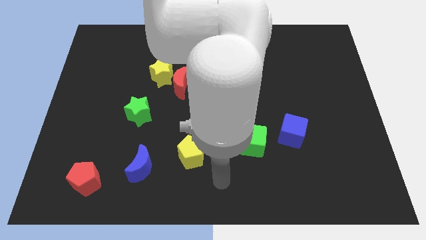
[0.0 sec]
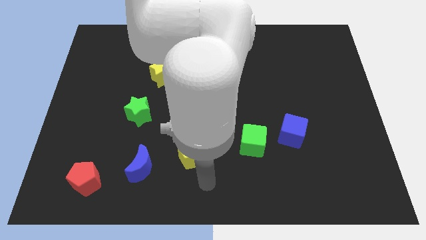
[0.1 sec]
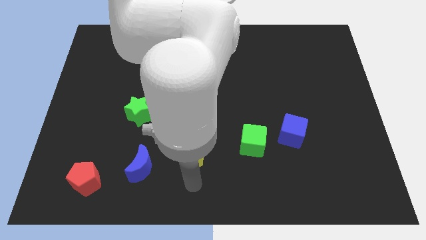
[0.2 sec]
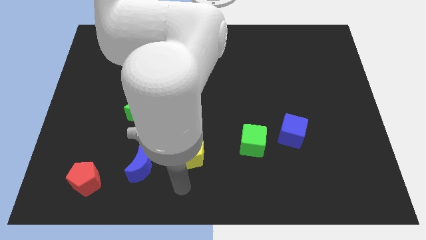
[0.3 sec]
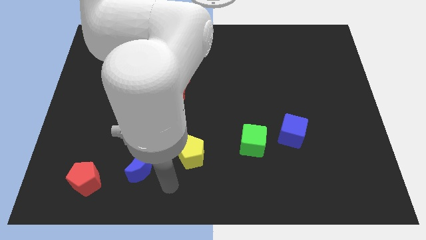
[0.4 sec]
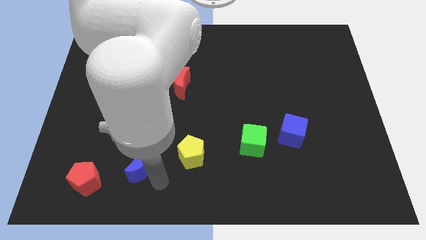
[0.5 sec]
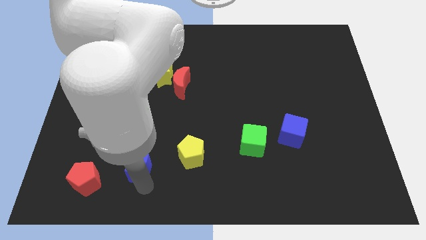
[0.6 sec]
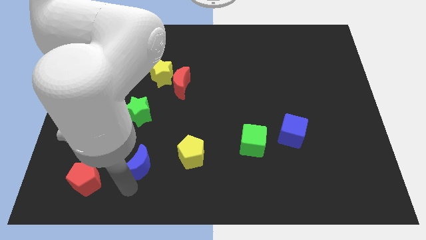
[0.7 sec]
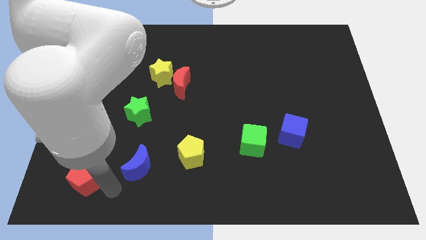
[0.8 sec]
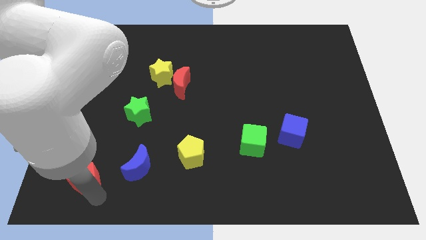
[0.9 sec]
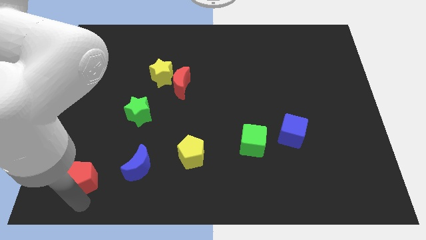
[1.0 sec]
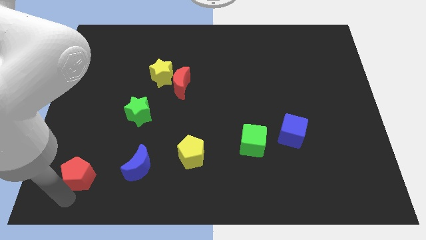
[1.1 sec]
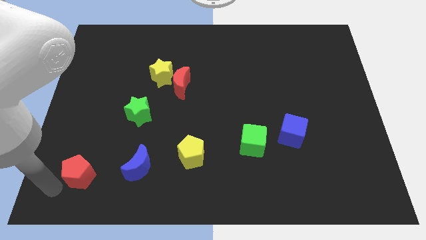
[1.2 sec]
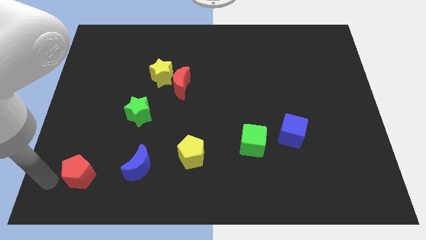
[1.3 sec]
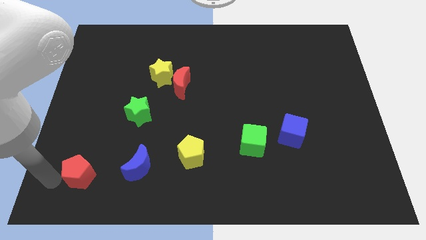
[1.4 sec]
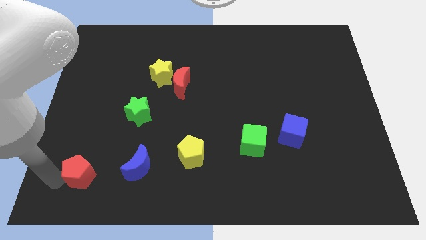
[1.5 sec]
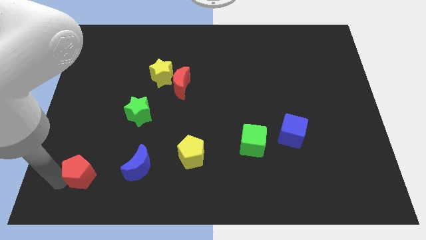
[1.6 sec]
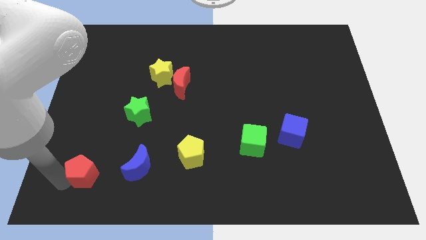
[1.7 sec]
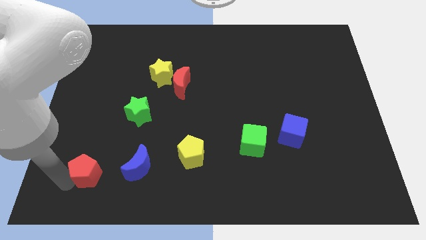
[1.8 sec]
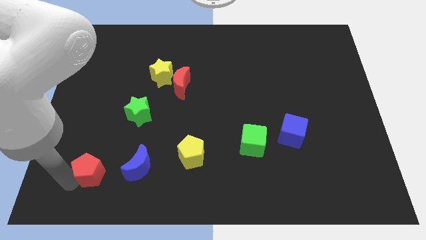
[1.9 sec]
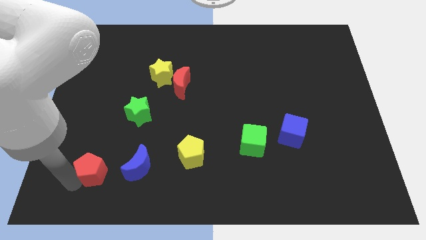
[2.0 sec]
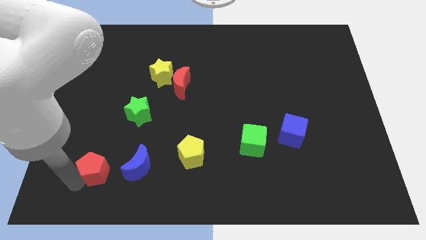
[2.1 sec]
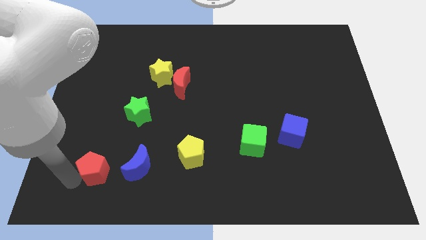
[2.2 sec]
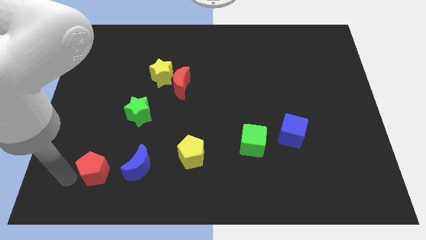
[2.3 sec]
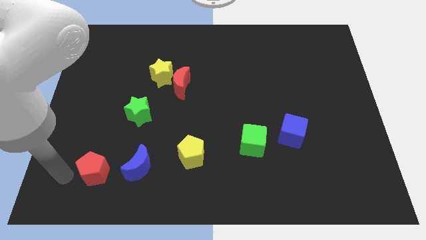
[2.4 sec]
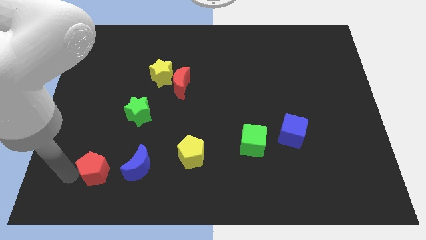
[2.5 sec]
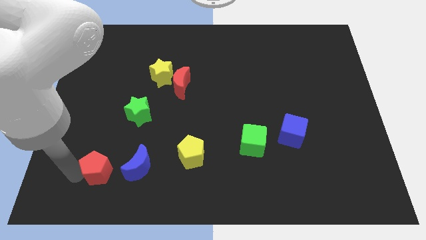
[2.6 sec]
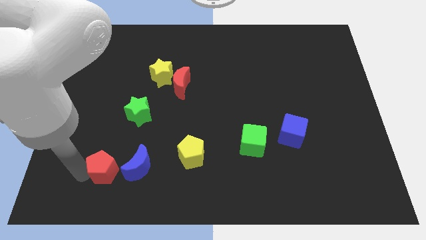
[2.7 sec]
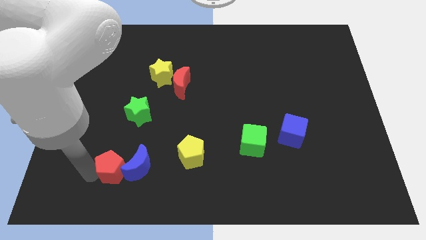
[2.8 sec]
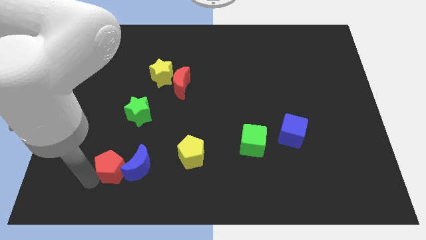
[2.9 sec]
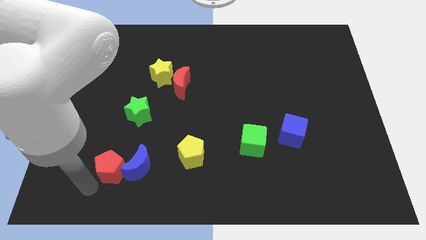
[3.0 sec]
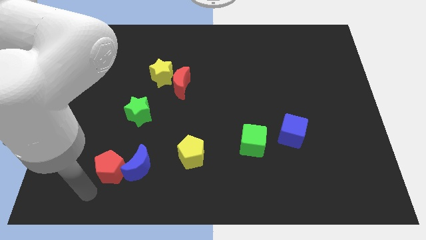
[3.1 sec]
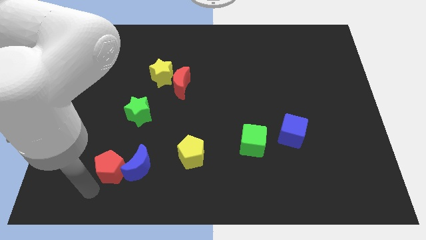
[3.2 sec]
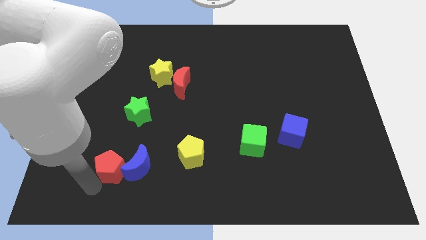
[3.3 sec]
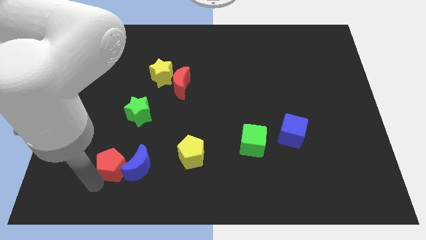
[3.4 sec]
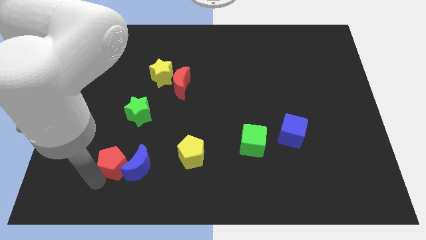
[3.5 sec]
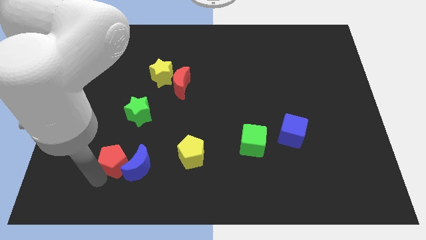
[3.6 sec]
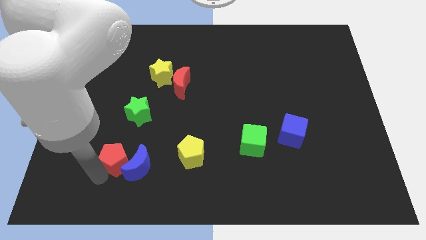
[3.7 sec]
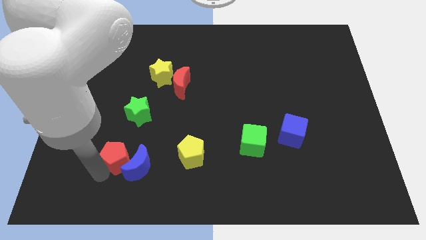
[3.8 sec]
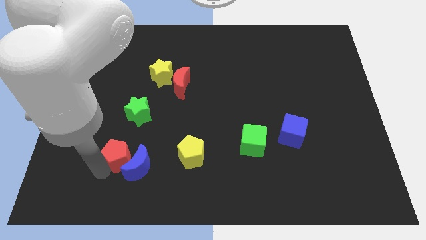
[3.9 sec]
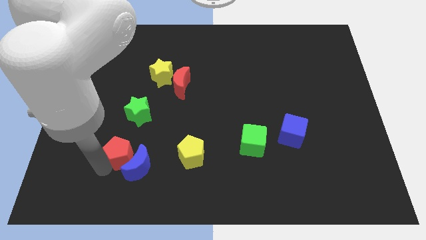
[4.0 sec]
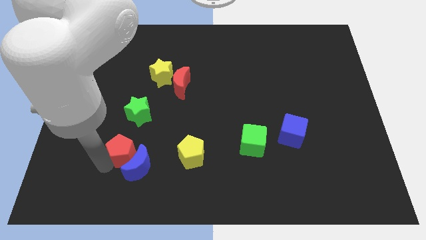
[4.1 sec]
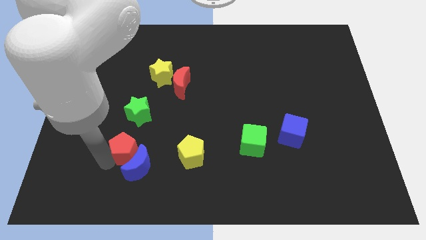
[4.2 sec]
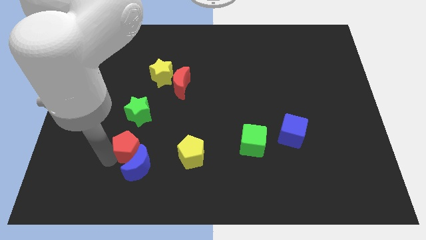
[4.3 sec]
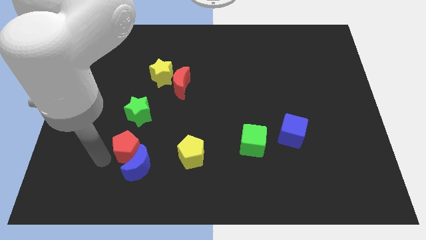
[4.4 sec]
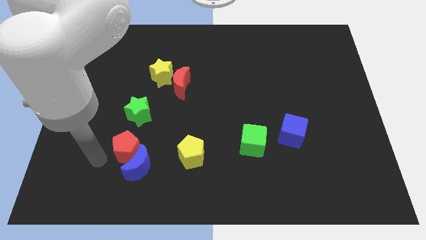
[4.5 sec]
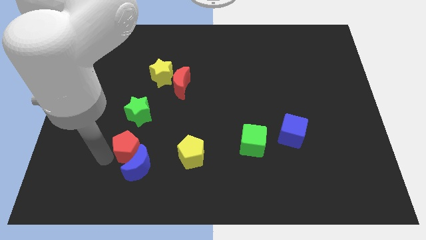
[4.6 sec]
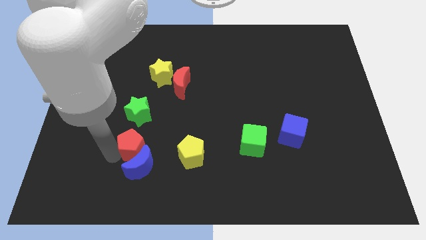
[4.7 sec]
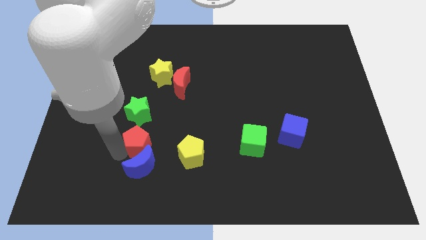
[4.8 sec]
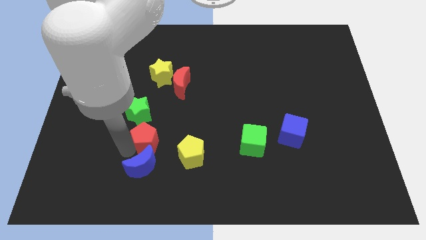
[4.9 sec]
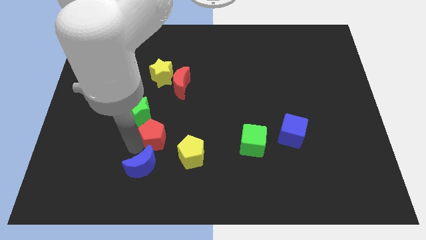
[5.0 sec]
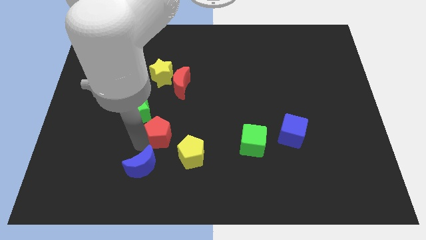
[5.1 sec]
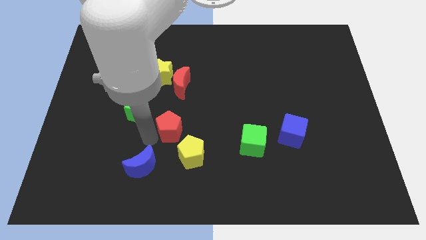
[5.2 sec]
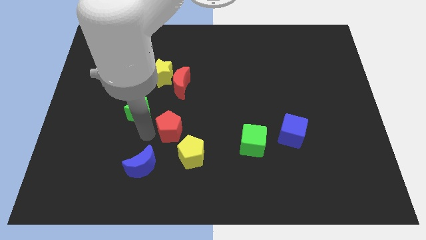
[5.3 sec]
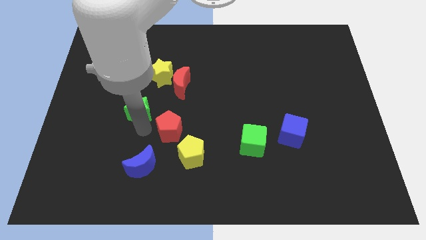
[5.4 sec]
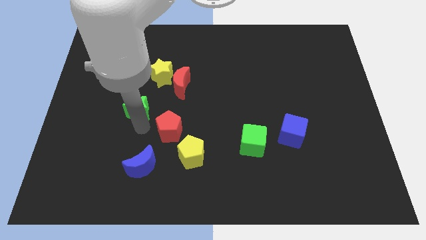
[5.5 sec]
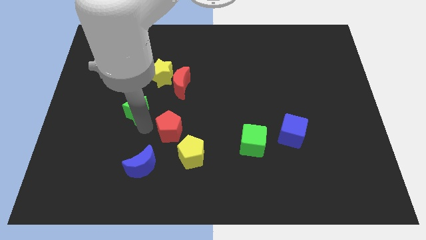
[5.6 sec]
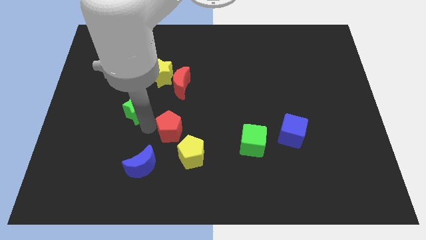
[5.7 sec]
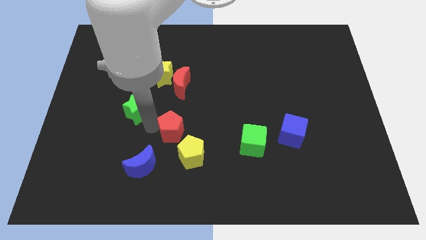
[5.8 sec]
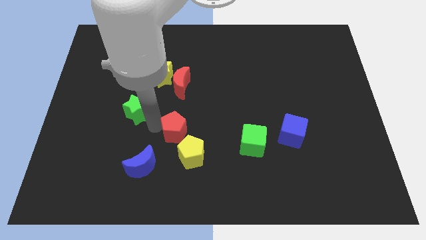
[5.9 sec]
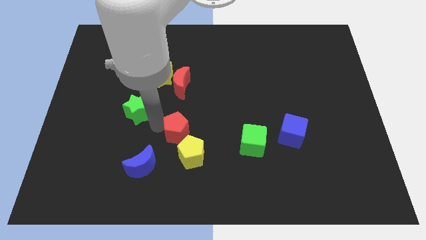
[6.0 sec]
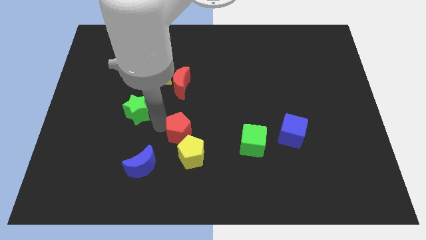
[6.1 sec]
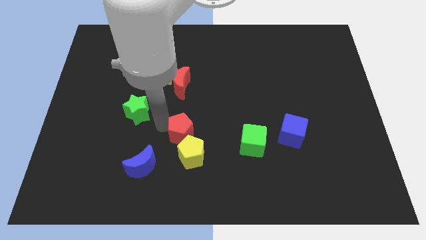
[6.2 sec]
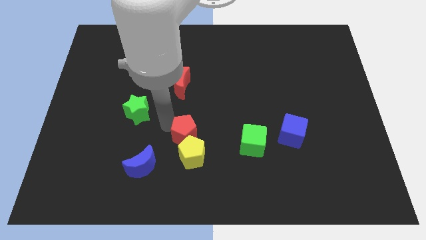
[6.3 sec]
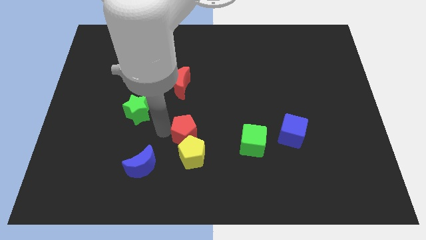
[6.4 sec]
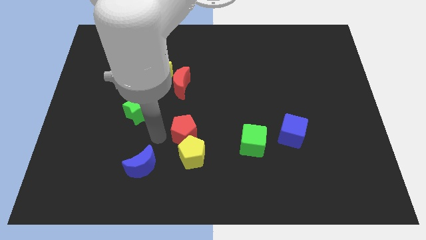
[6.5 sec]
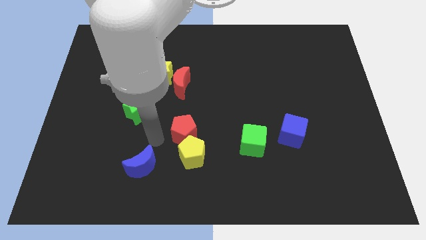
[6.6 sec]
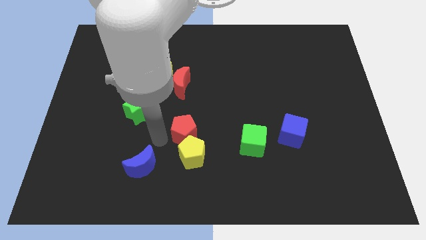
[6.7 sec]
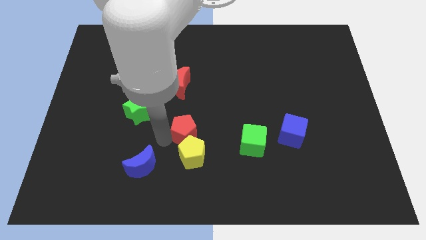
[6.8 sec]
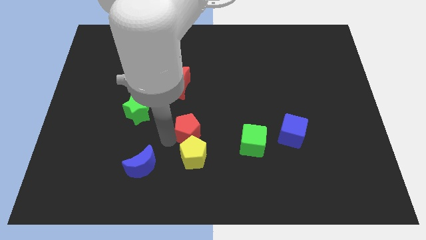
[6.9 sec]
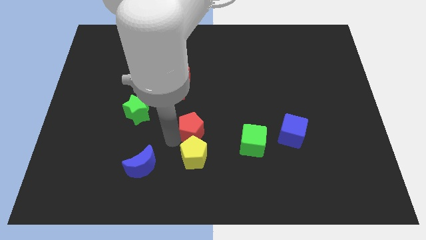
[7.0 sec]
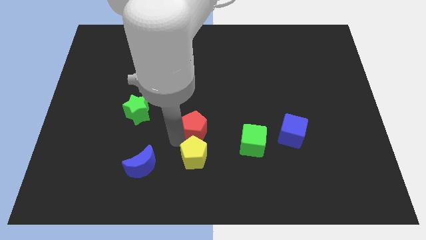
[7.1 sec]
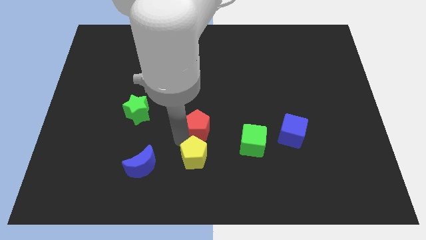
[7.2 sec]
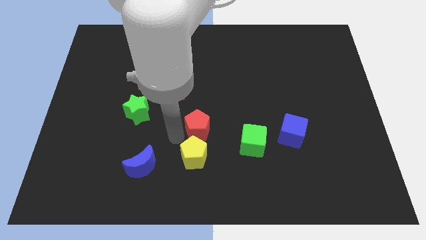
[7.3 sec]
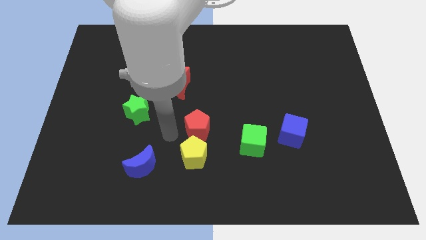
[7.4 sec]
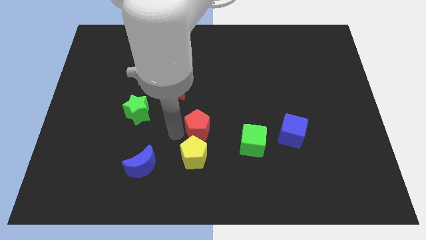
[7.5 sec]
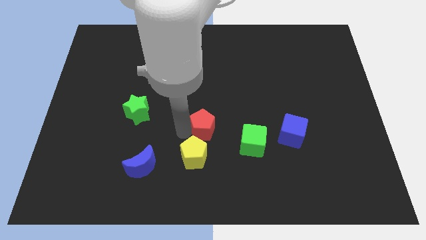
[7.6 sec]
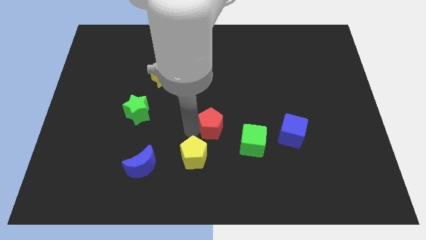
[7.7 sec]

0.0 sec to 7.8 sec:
slide the red pentagon to the top left side of the green cube
